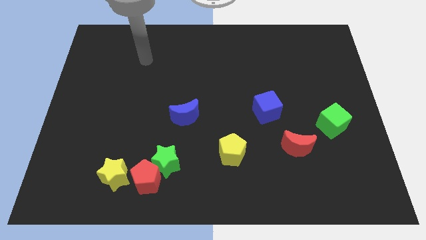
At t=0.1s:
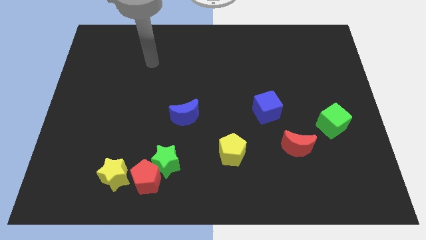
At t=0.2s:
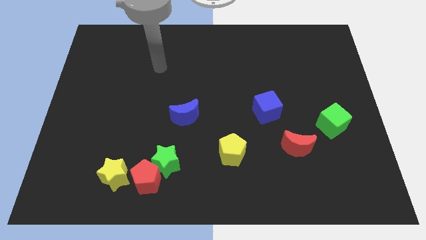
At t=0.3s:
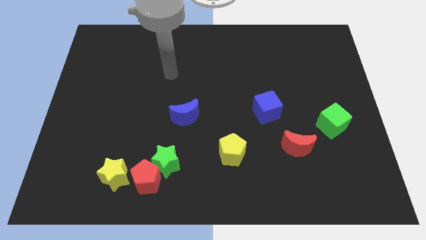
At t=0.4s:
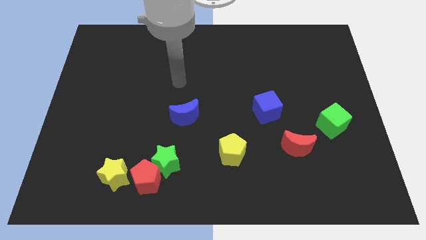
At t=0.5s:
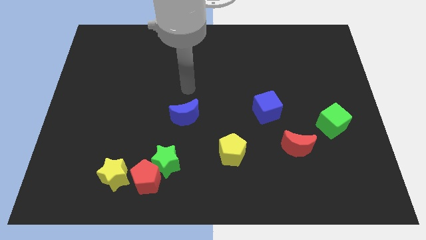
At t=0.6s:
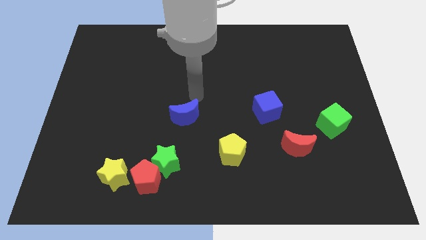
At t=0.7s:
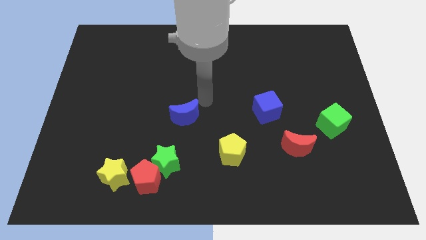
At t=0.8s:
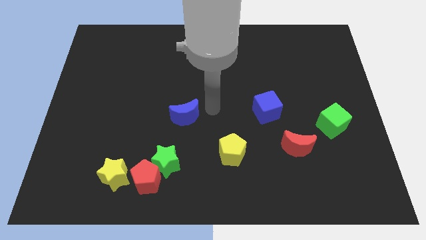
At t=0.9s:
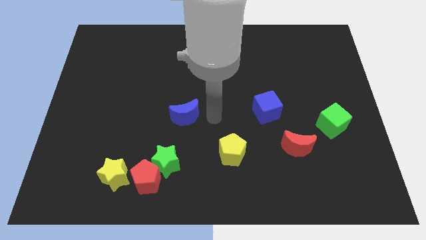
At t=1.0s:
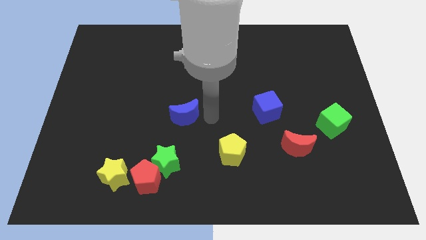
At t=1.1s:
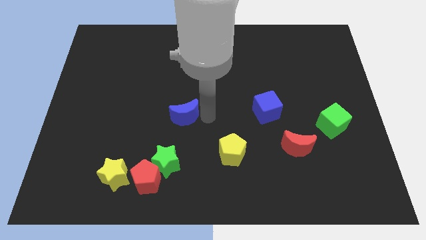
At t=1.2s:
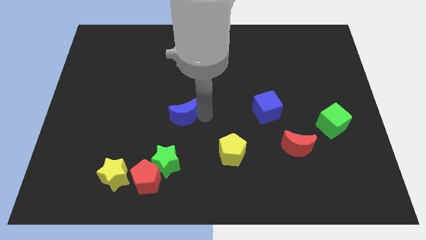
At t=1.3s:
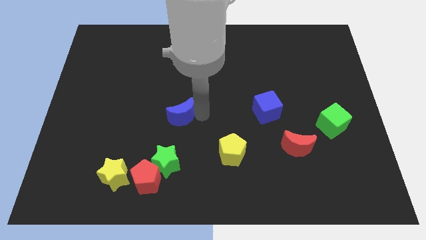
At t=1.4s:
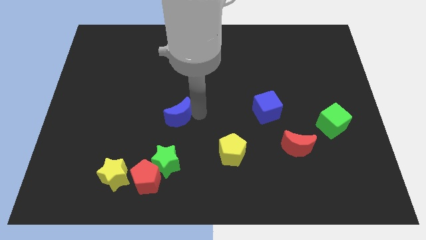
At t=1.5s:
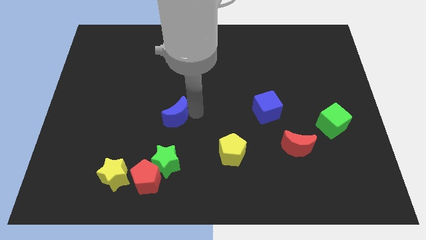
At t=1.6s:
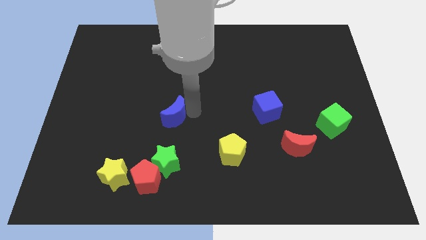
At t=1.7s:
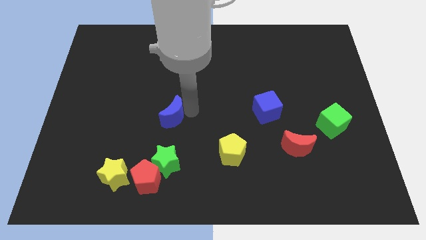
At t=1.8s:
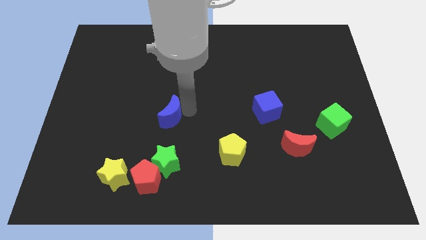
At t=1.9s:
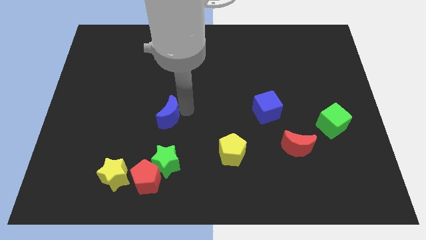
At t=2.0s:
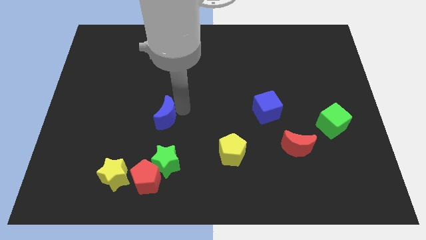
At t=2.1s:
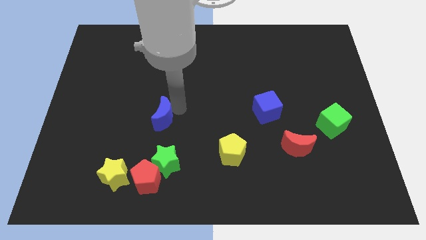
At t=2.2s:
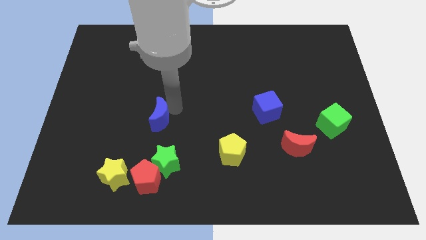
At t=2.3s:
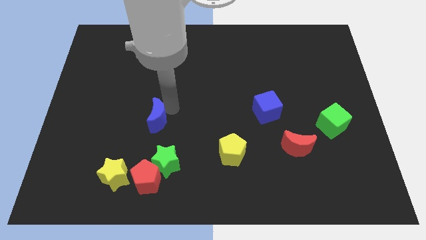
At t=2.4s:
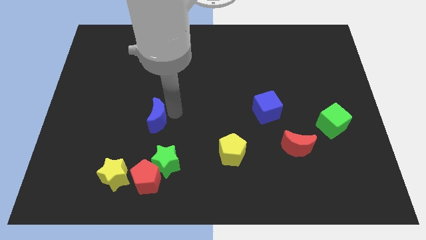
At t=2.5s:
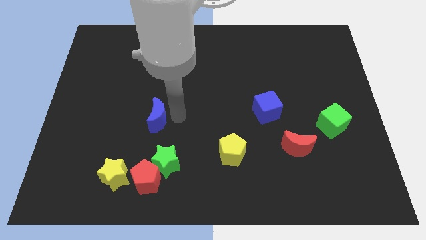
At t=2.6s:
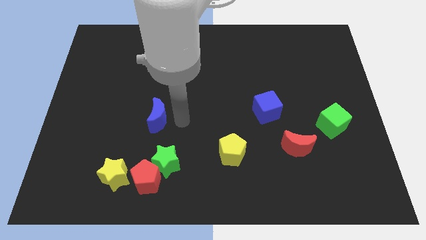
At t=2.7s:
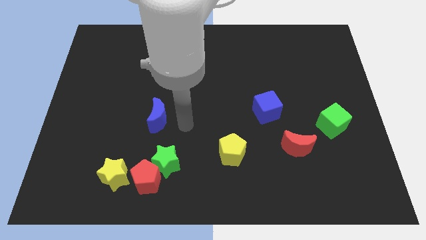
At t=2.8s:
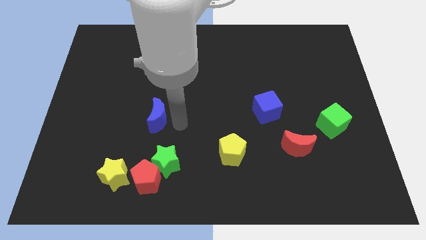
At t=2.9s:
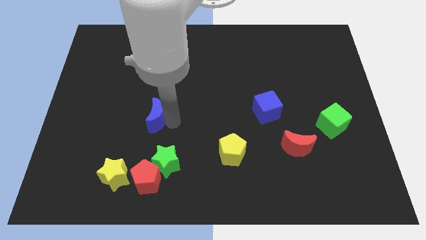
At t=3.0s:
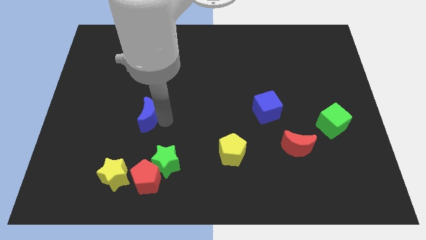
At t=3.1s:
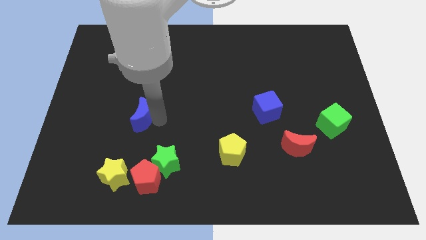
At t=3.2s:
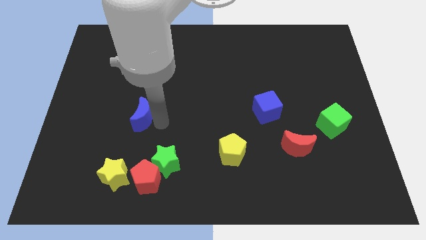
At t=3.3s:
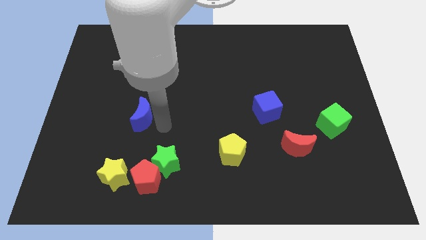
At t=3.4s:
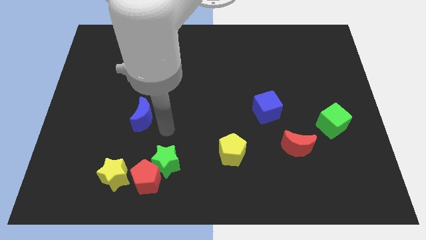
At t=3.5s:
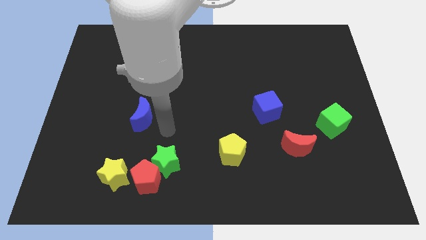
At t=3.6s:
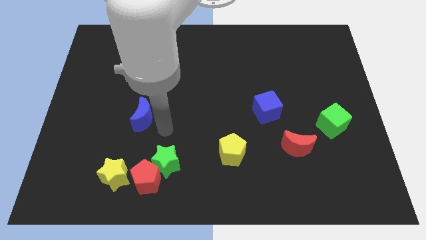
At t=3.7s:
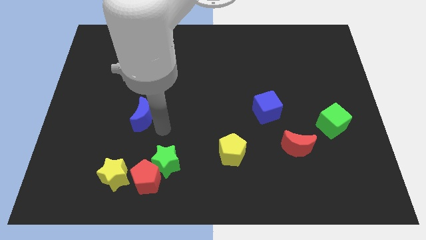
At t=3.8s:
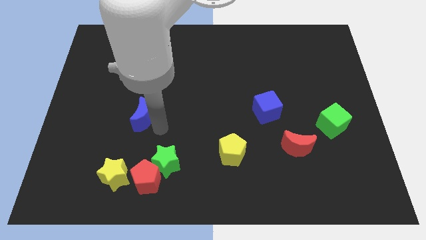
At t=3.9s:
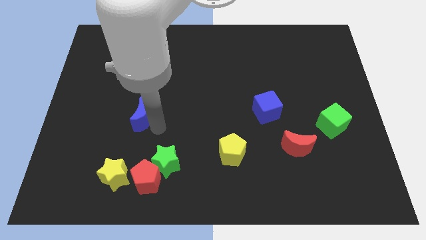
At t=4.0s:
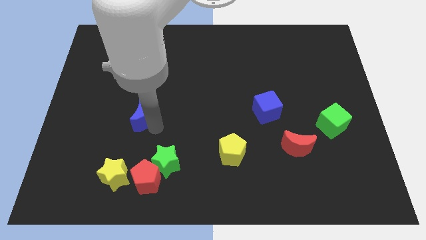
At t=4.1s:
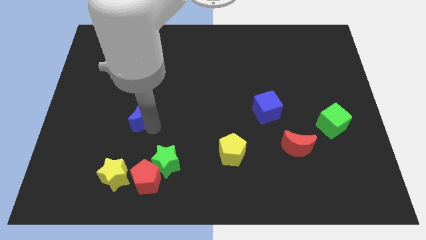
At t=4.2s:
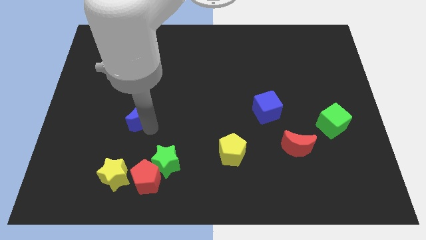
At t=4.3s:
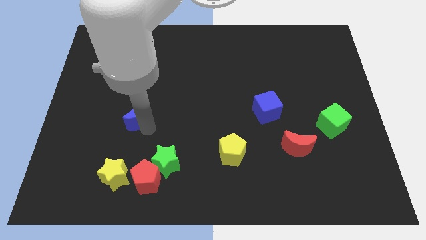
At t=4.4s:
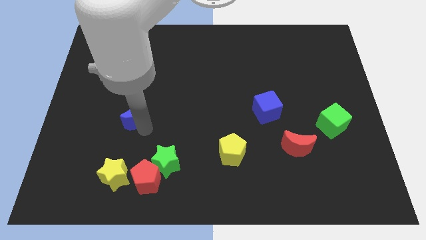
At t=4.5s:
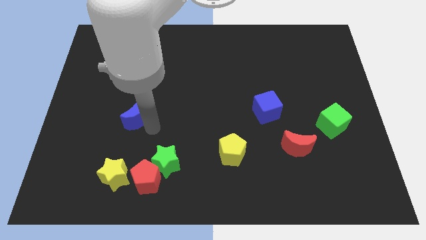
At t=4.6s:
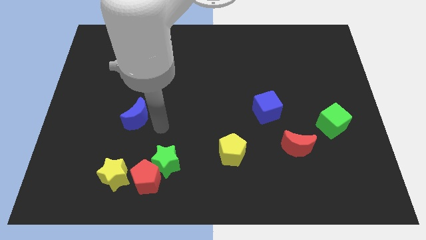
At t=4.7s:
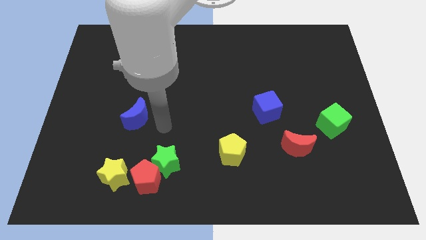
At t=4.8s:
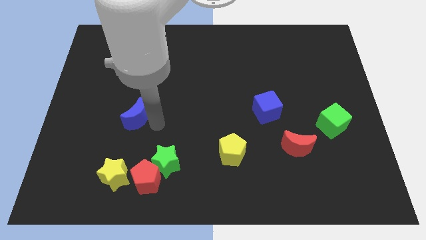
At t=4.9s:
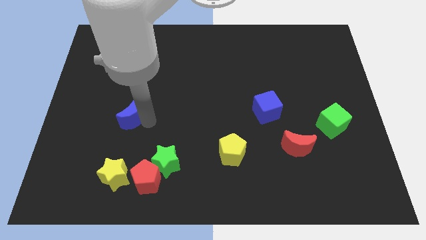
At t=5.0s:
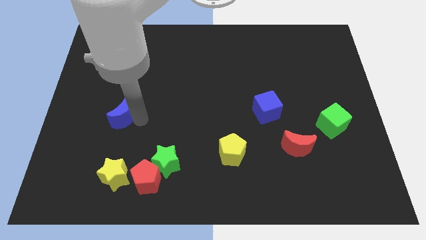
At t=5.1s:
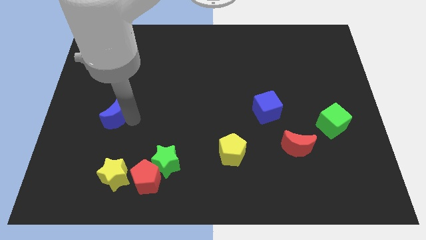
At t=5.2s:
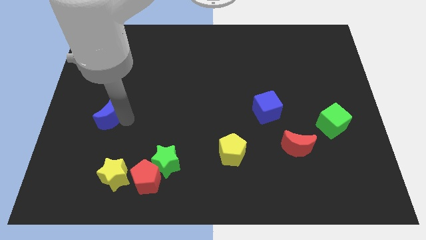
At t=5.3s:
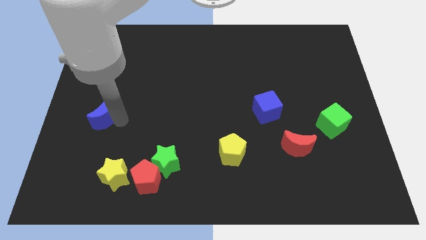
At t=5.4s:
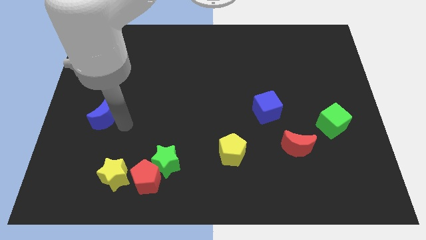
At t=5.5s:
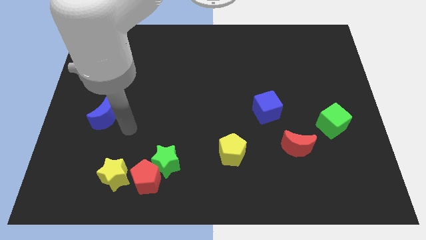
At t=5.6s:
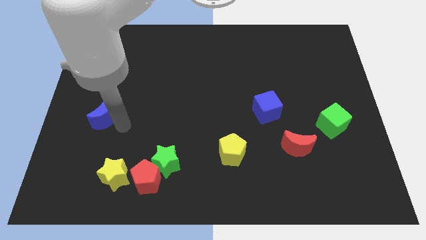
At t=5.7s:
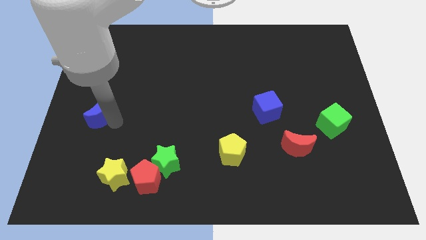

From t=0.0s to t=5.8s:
move the blue moon to the left side

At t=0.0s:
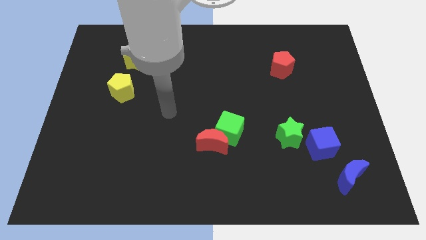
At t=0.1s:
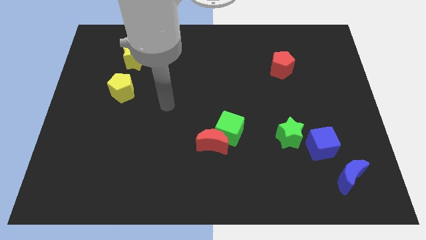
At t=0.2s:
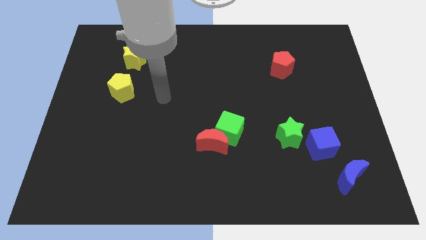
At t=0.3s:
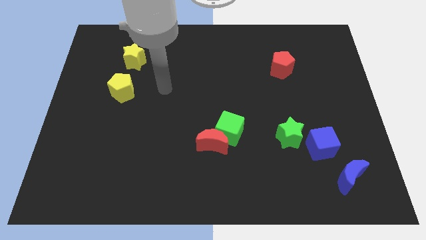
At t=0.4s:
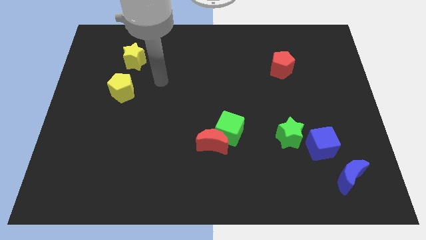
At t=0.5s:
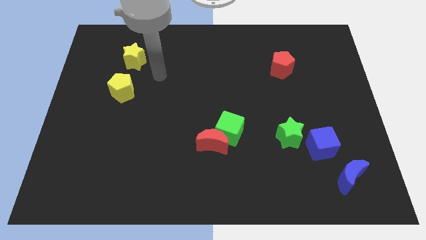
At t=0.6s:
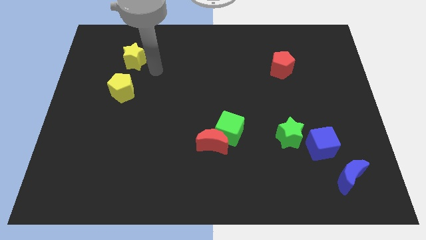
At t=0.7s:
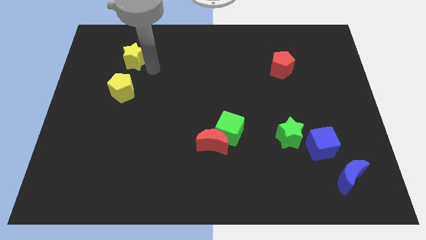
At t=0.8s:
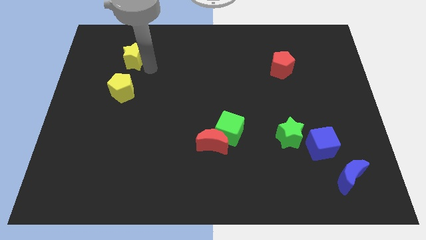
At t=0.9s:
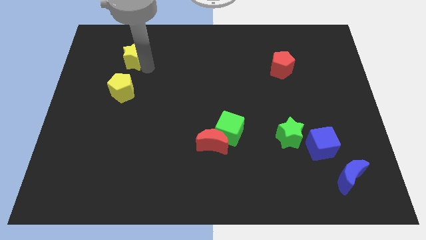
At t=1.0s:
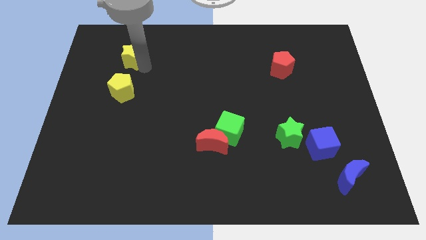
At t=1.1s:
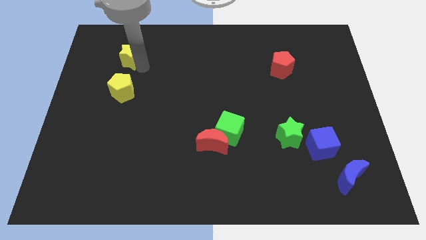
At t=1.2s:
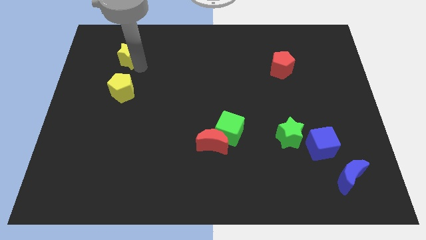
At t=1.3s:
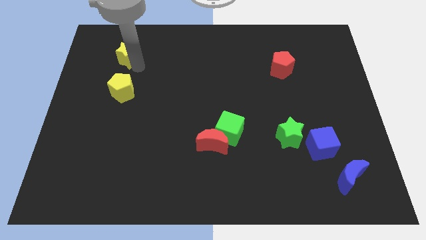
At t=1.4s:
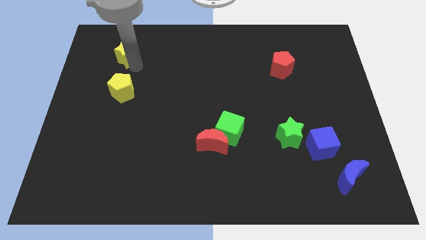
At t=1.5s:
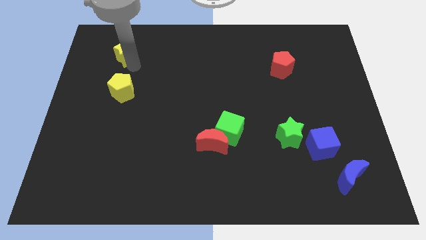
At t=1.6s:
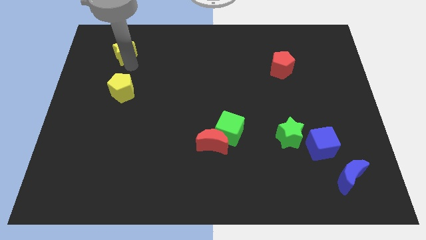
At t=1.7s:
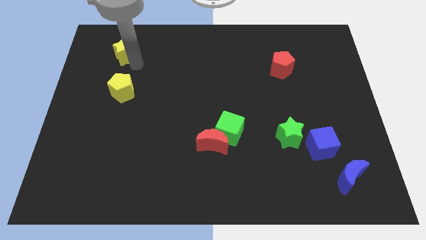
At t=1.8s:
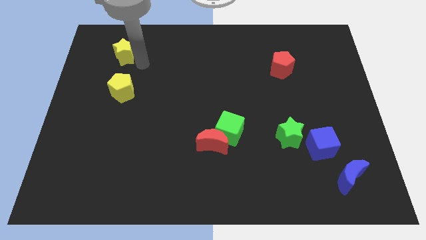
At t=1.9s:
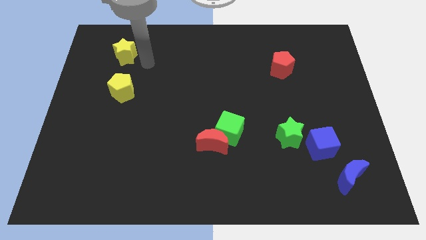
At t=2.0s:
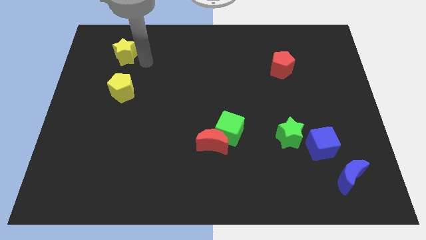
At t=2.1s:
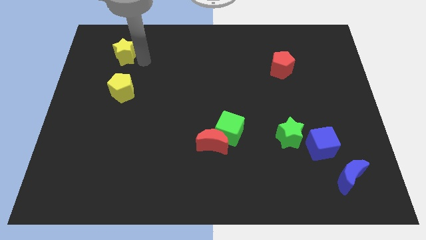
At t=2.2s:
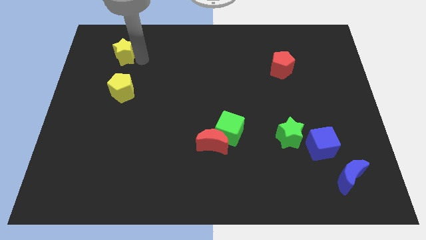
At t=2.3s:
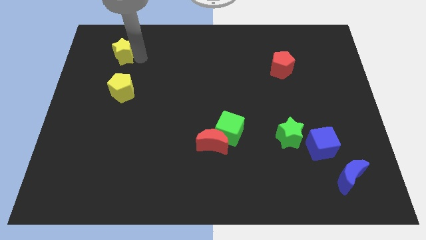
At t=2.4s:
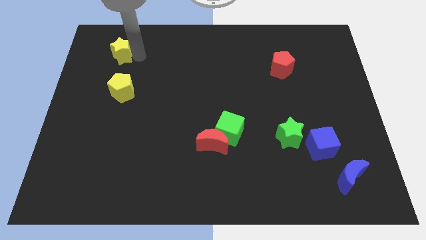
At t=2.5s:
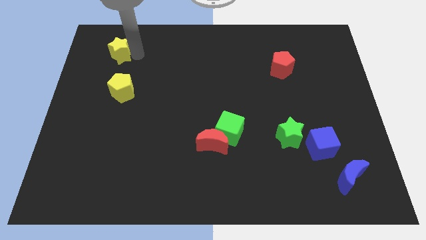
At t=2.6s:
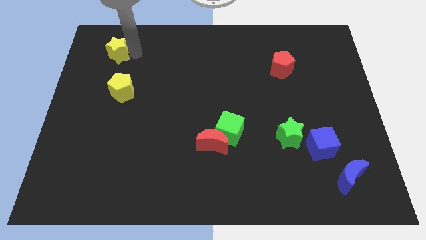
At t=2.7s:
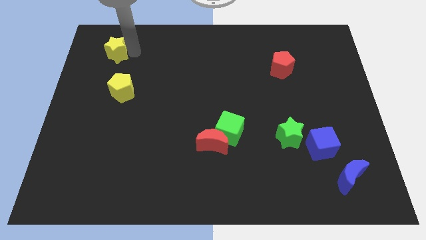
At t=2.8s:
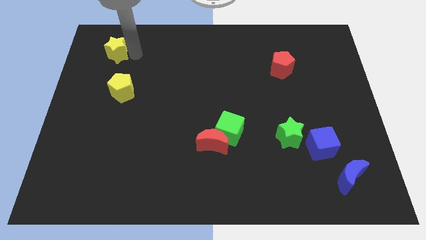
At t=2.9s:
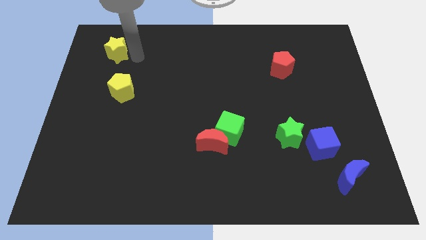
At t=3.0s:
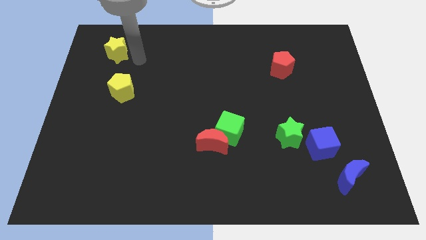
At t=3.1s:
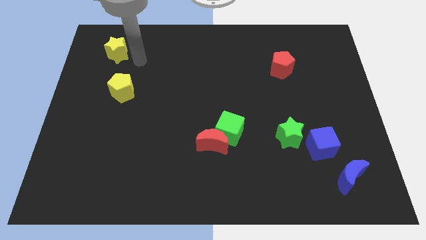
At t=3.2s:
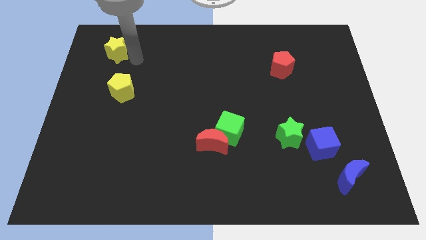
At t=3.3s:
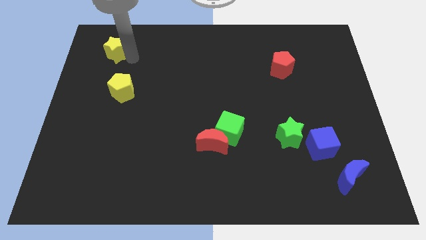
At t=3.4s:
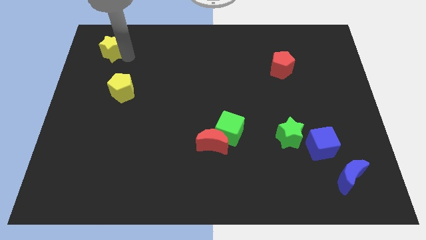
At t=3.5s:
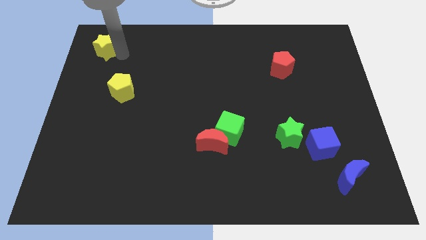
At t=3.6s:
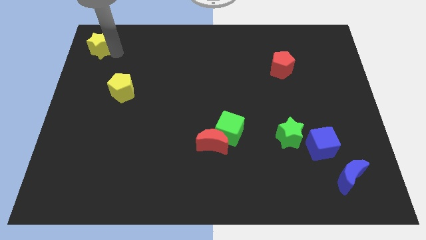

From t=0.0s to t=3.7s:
put the yellow star to the top left
